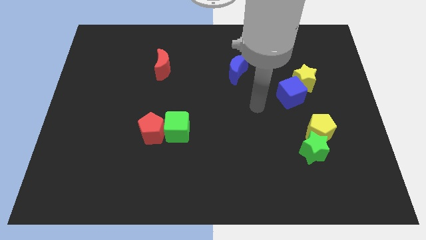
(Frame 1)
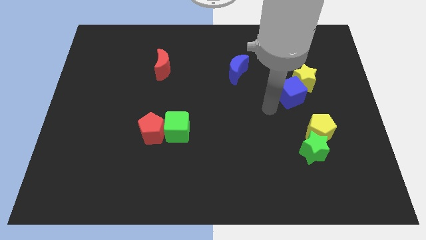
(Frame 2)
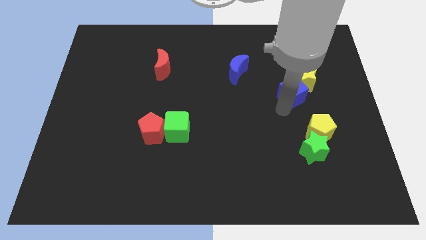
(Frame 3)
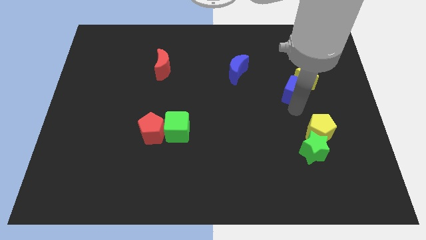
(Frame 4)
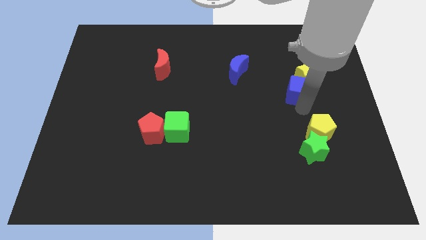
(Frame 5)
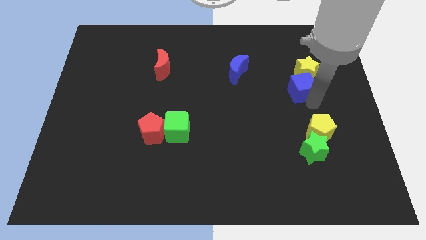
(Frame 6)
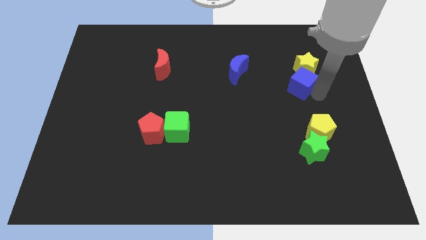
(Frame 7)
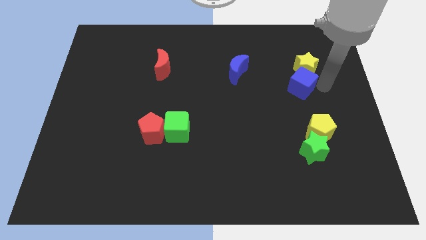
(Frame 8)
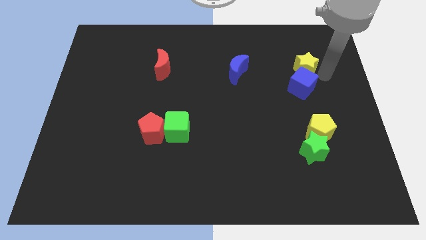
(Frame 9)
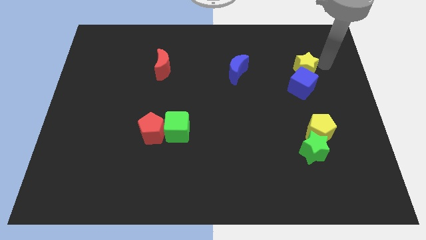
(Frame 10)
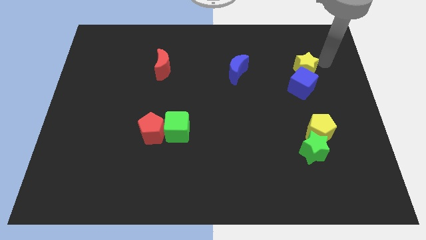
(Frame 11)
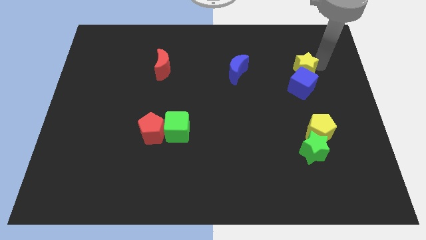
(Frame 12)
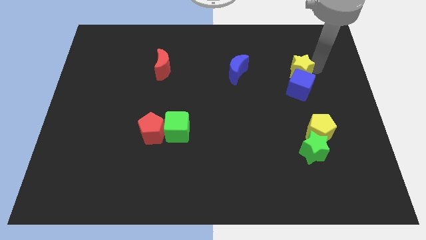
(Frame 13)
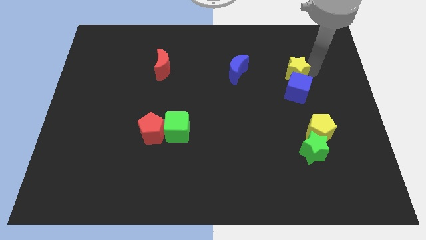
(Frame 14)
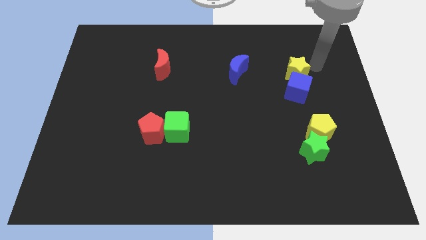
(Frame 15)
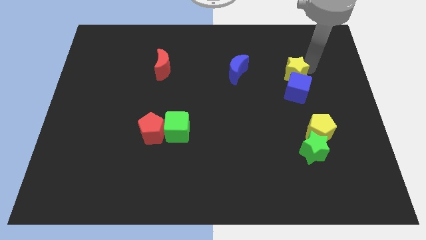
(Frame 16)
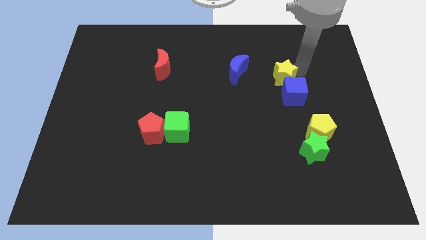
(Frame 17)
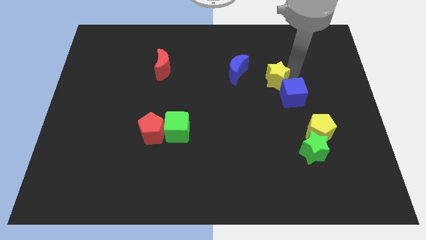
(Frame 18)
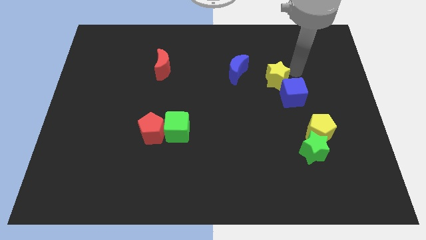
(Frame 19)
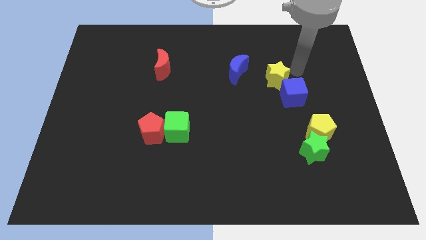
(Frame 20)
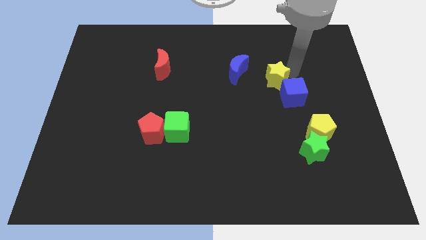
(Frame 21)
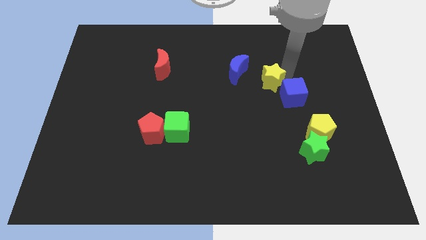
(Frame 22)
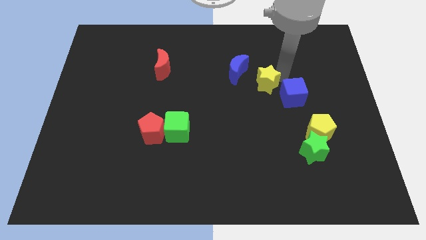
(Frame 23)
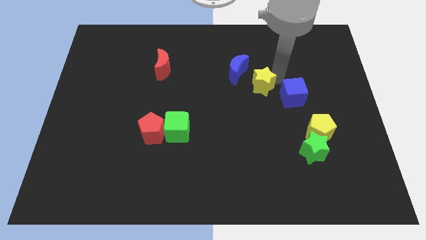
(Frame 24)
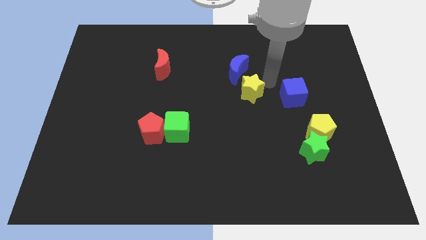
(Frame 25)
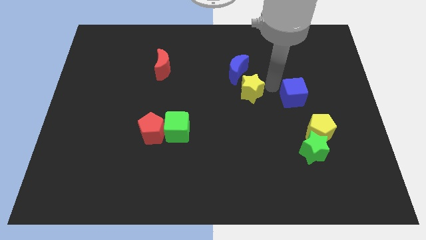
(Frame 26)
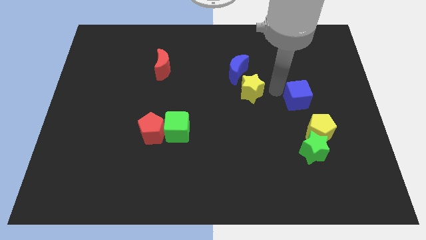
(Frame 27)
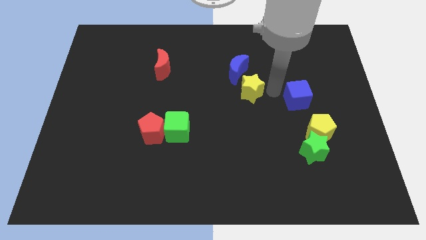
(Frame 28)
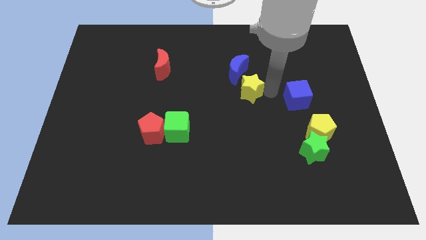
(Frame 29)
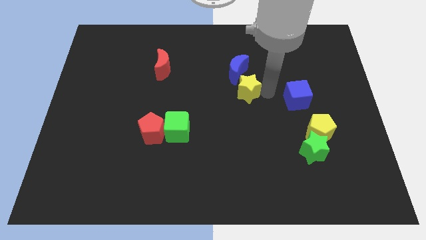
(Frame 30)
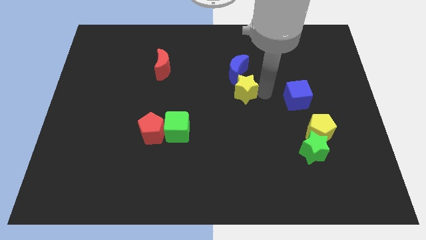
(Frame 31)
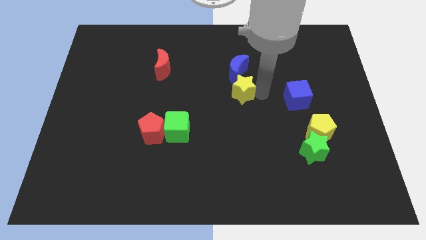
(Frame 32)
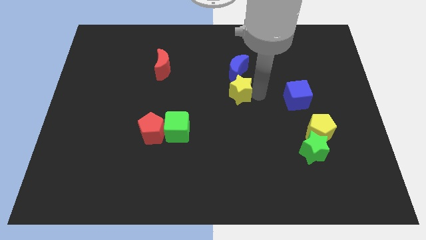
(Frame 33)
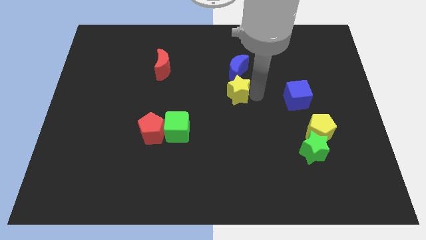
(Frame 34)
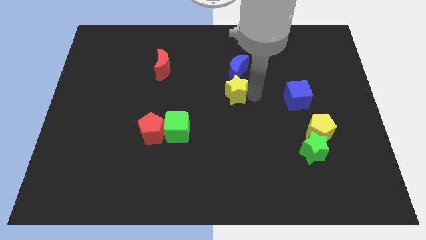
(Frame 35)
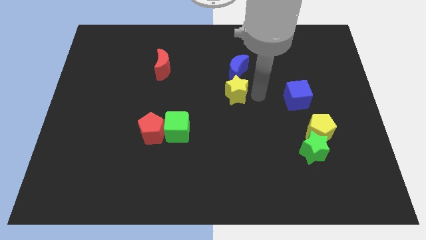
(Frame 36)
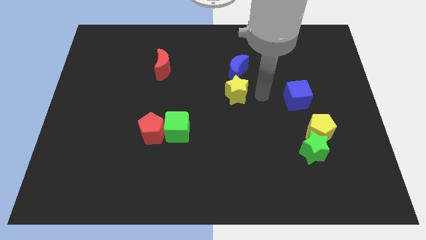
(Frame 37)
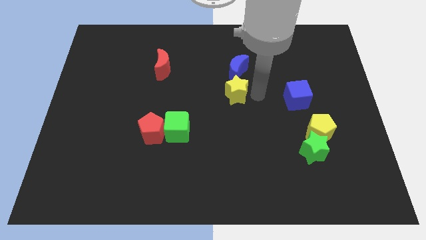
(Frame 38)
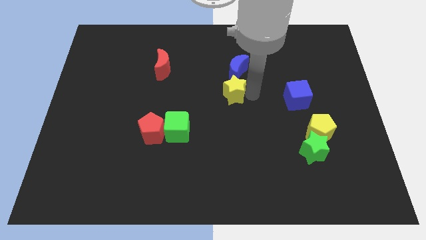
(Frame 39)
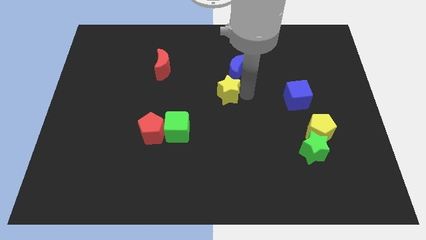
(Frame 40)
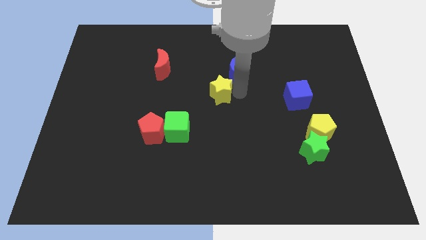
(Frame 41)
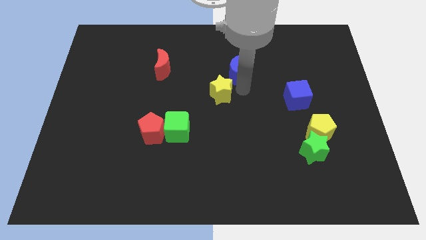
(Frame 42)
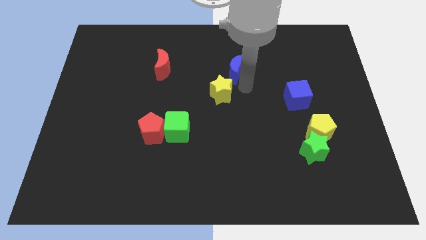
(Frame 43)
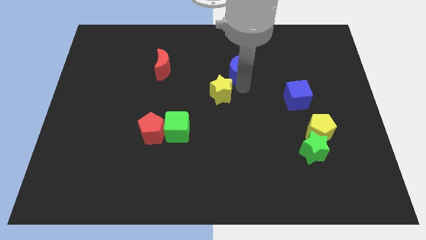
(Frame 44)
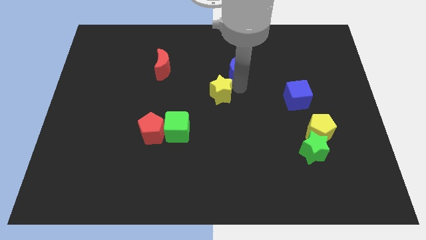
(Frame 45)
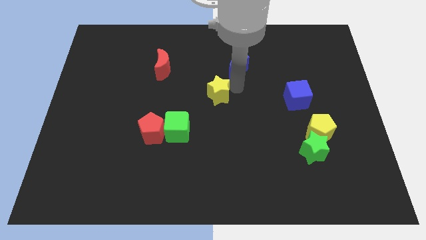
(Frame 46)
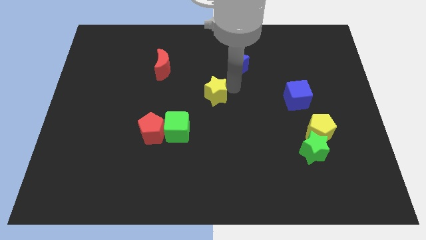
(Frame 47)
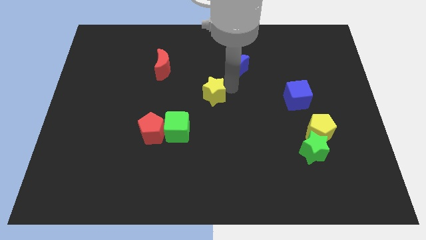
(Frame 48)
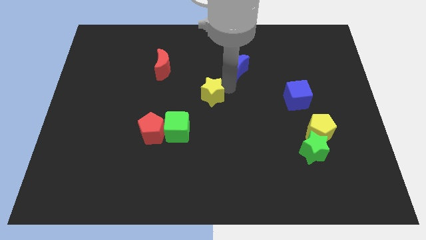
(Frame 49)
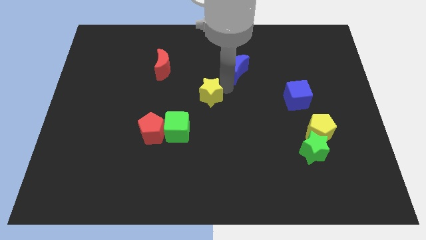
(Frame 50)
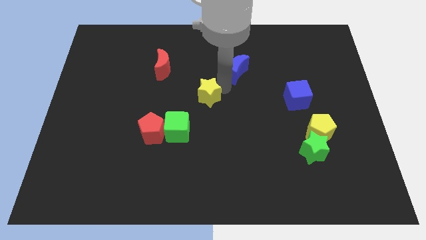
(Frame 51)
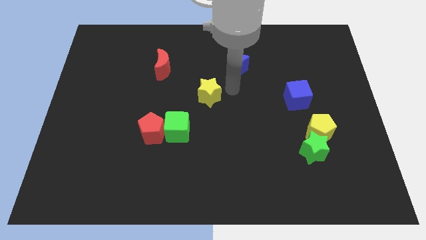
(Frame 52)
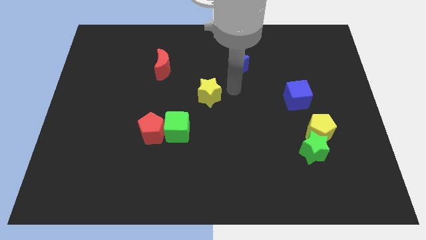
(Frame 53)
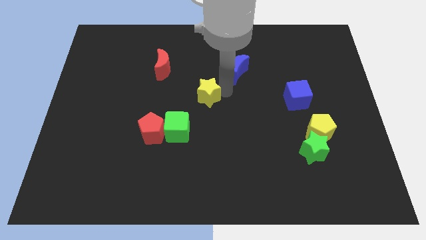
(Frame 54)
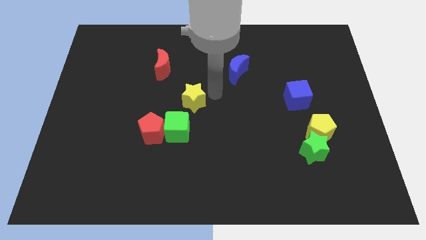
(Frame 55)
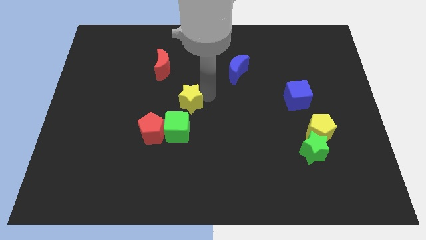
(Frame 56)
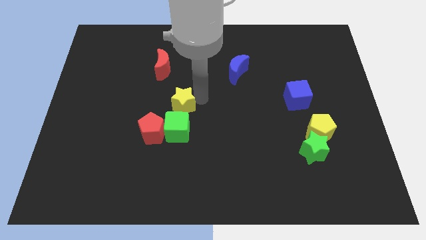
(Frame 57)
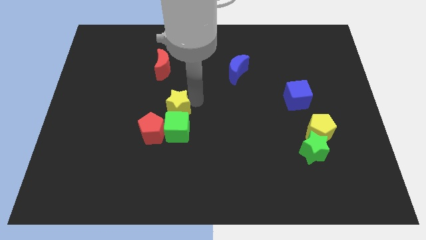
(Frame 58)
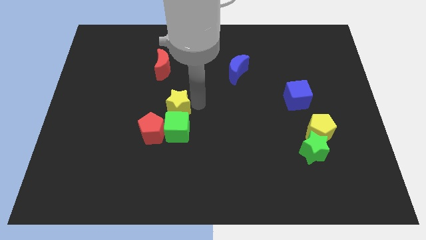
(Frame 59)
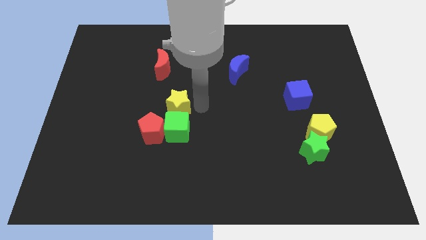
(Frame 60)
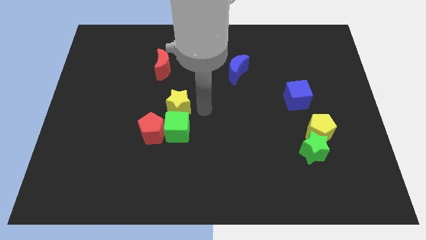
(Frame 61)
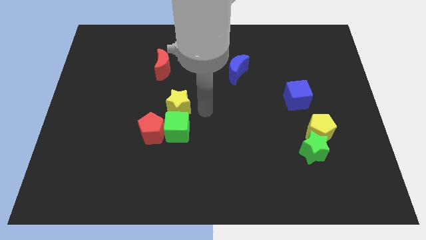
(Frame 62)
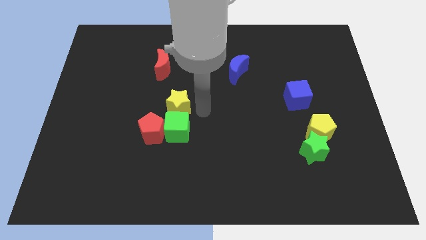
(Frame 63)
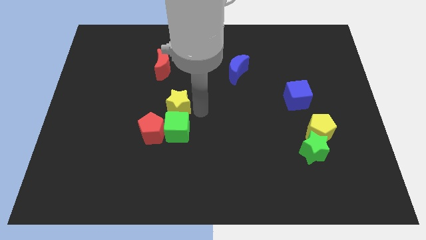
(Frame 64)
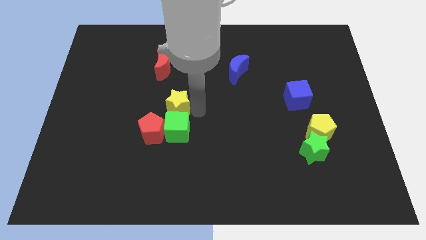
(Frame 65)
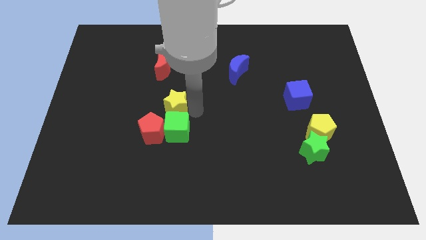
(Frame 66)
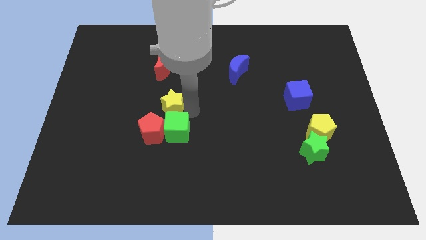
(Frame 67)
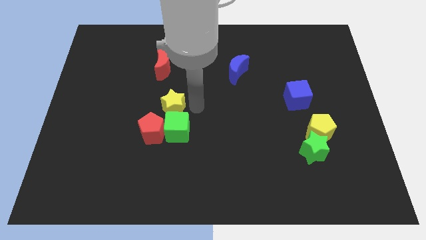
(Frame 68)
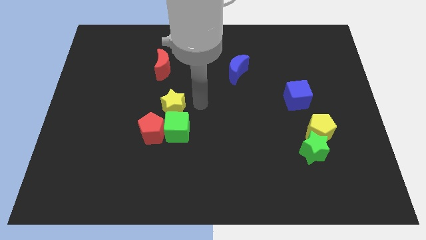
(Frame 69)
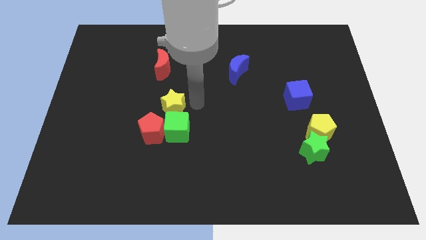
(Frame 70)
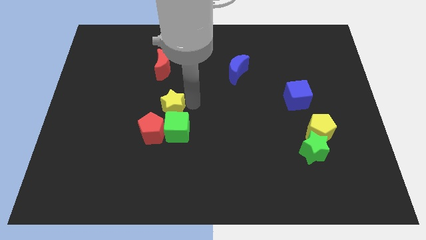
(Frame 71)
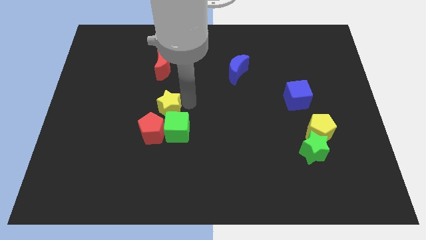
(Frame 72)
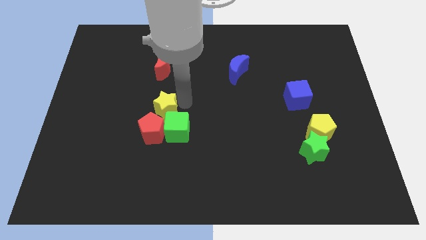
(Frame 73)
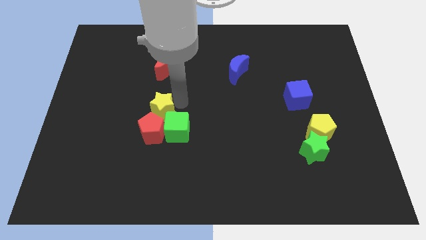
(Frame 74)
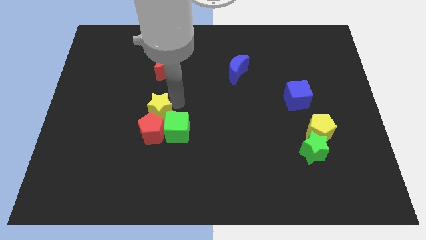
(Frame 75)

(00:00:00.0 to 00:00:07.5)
slide the yellow star to the top left side of the red pentagon
